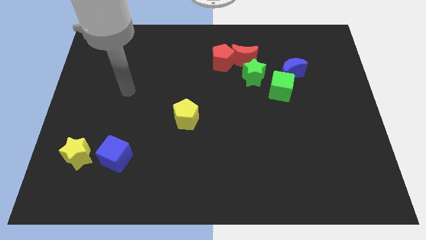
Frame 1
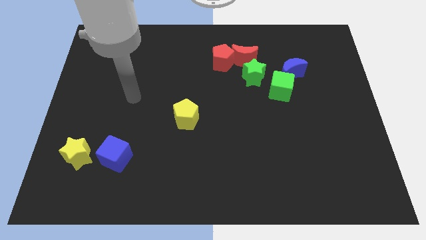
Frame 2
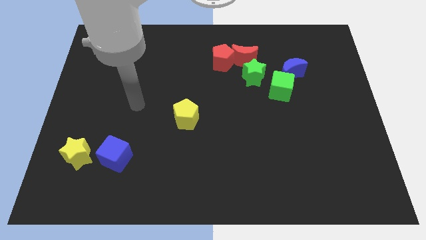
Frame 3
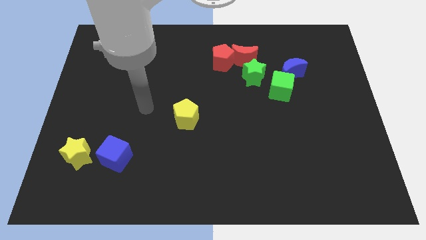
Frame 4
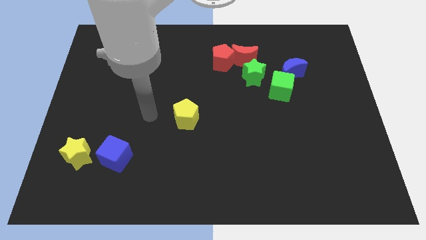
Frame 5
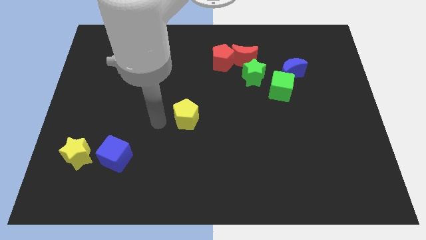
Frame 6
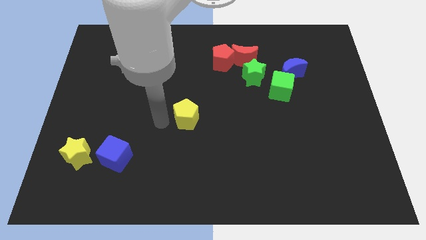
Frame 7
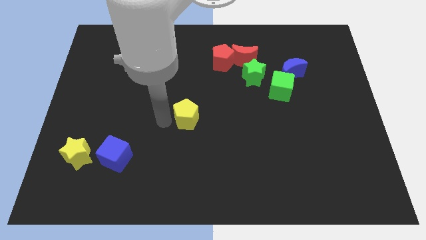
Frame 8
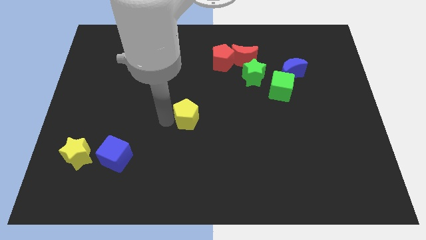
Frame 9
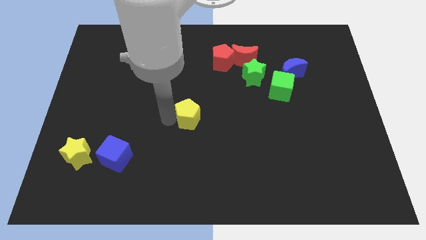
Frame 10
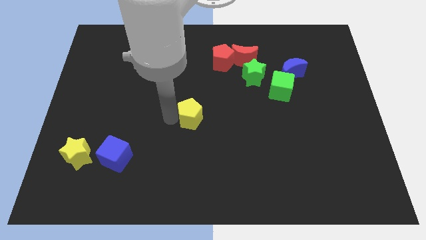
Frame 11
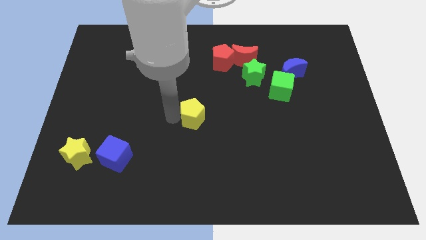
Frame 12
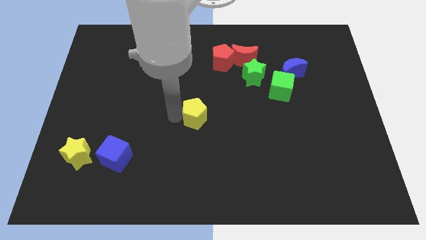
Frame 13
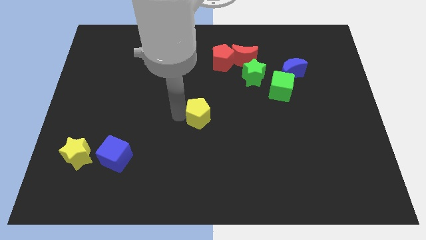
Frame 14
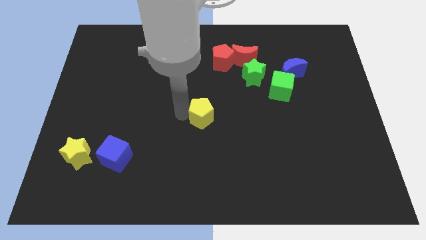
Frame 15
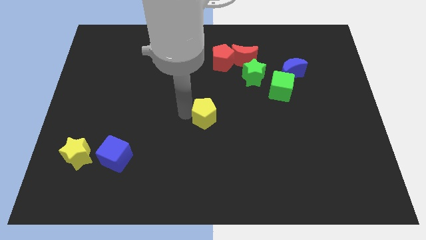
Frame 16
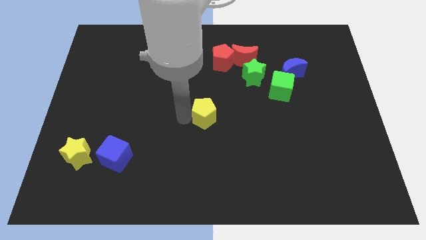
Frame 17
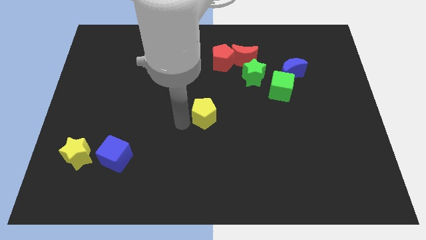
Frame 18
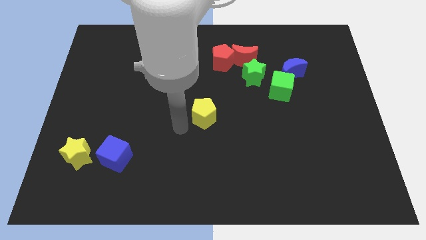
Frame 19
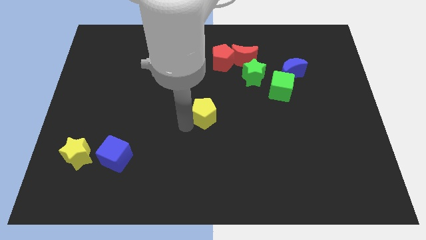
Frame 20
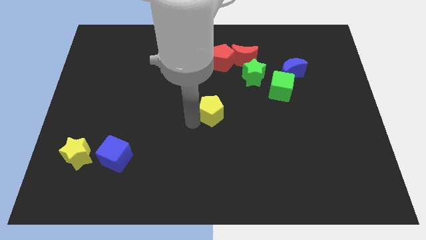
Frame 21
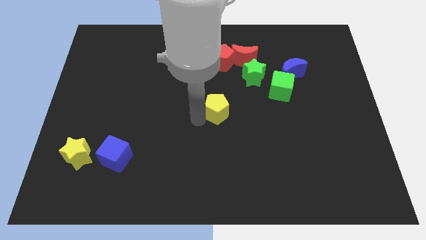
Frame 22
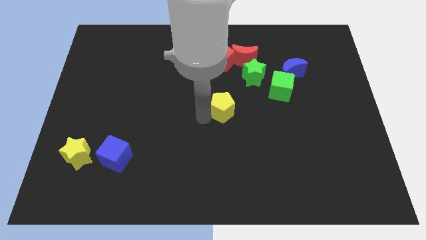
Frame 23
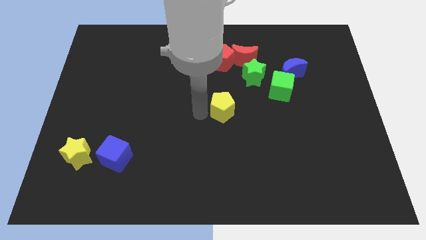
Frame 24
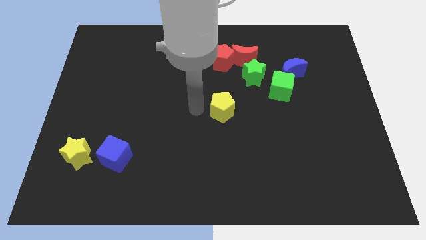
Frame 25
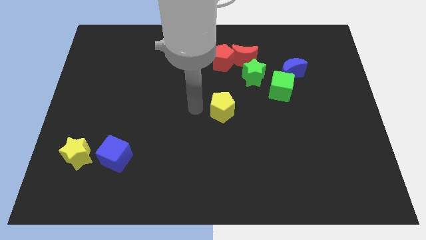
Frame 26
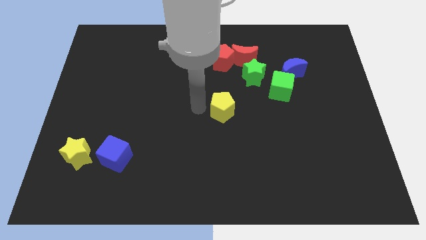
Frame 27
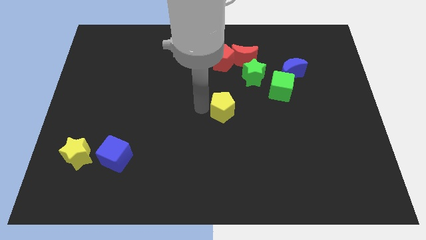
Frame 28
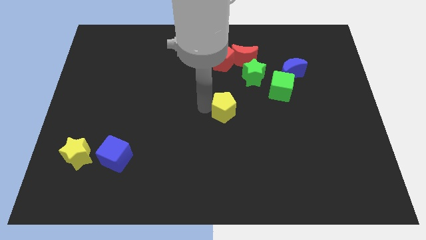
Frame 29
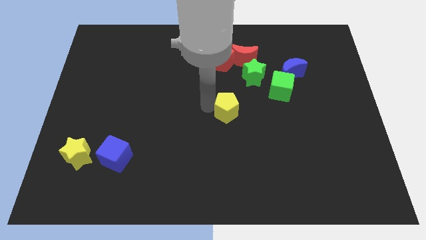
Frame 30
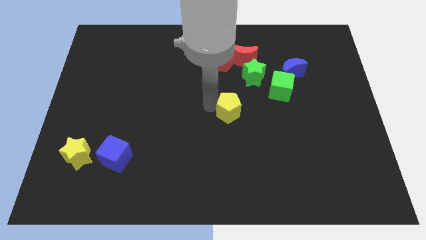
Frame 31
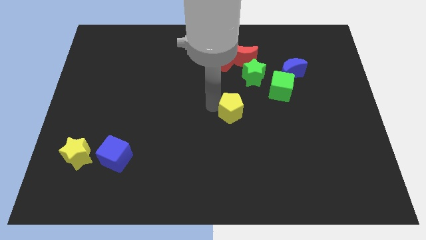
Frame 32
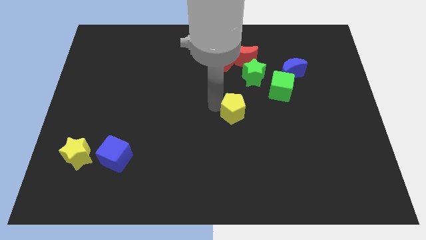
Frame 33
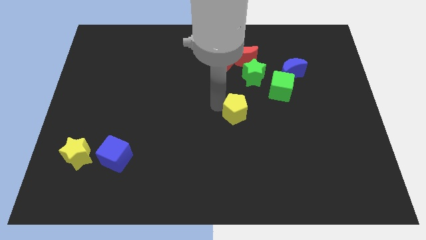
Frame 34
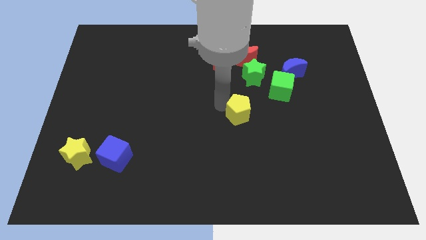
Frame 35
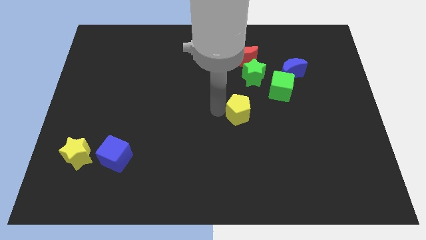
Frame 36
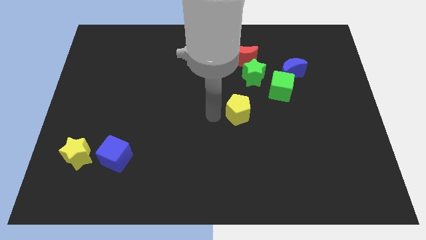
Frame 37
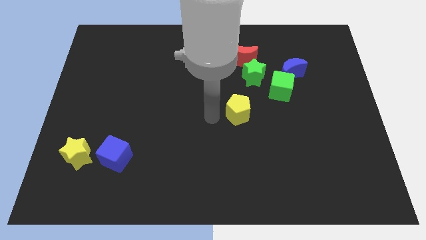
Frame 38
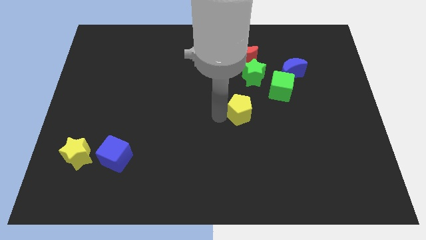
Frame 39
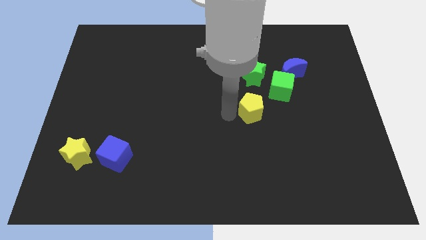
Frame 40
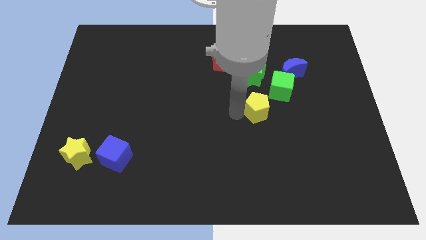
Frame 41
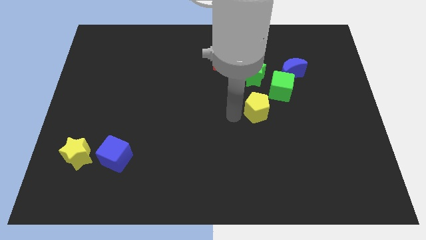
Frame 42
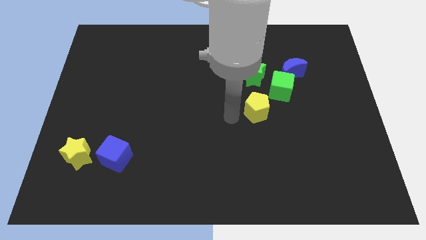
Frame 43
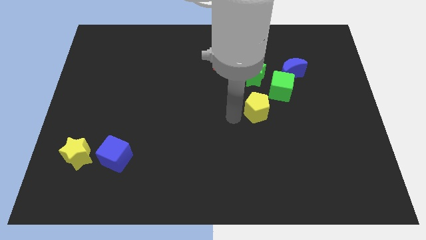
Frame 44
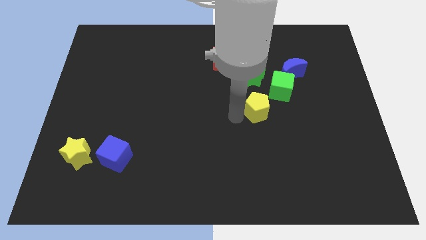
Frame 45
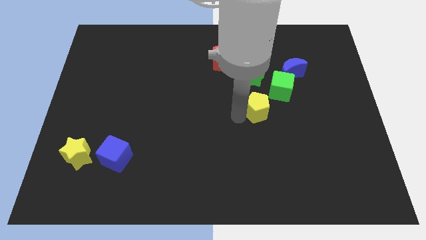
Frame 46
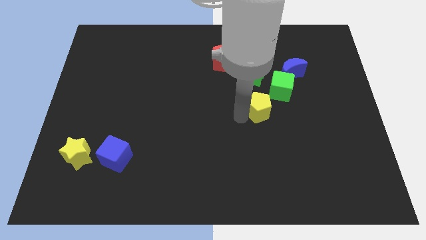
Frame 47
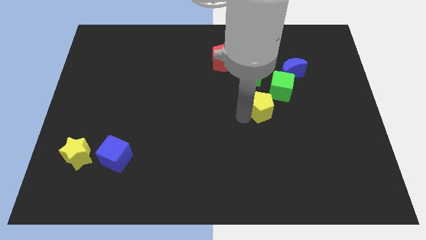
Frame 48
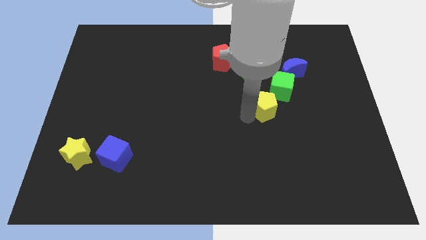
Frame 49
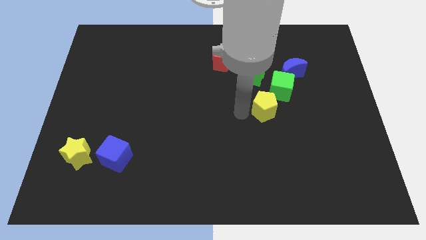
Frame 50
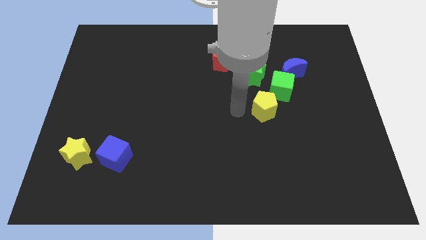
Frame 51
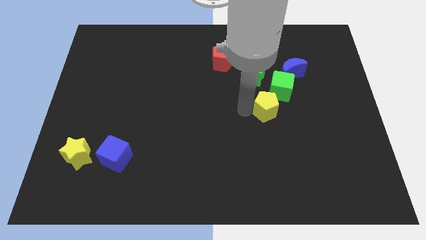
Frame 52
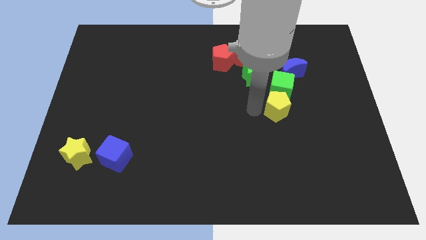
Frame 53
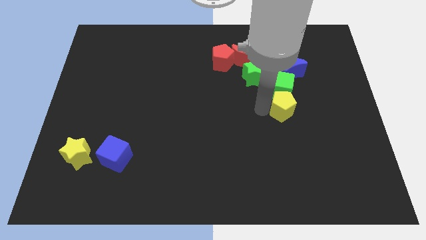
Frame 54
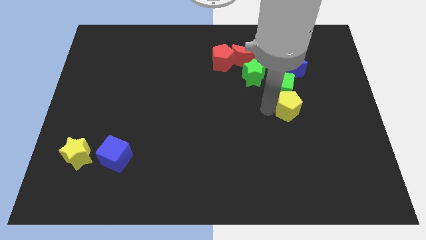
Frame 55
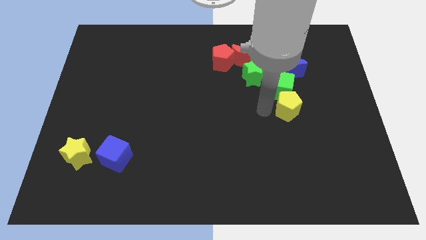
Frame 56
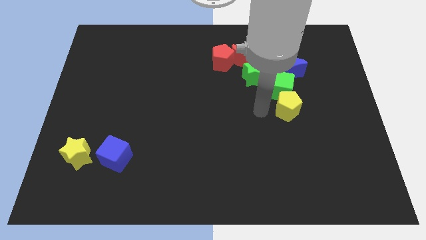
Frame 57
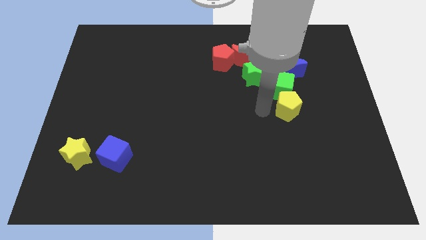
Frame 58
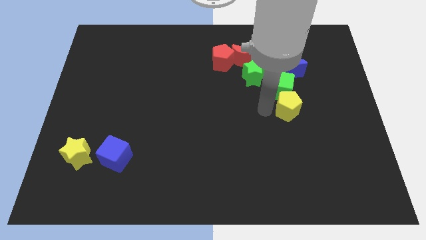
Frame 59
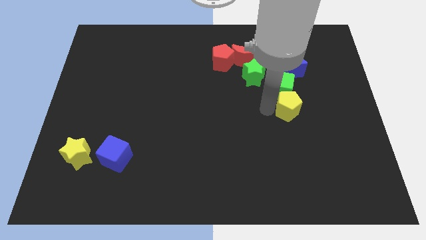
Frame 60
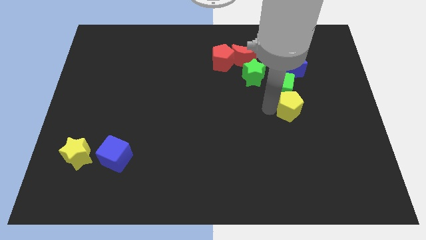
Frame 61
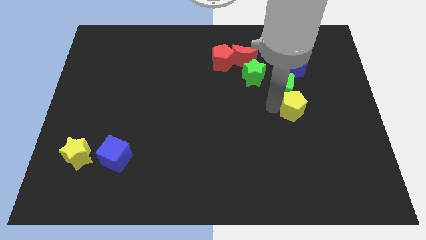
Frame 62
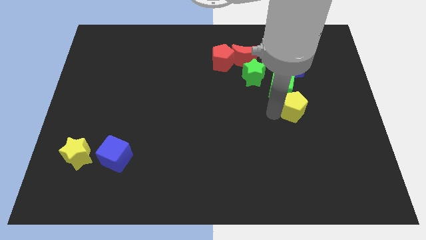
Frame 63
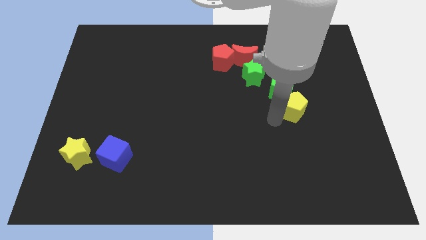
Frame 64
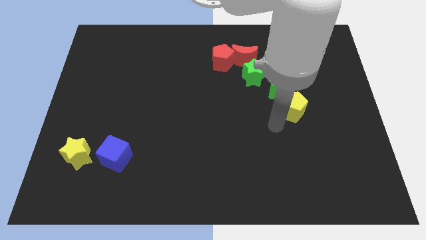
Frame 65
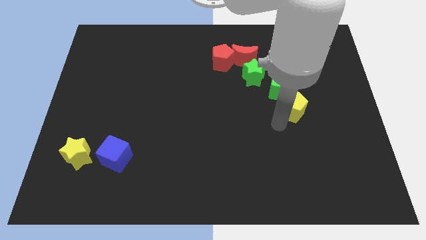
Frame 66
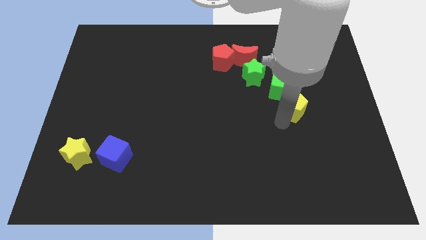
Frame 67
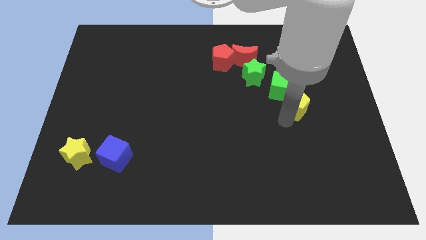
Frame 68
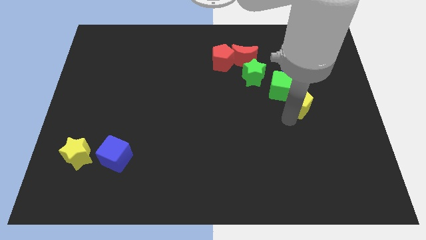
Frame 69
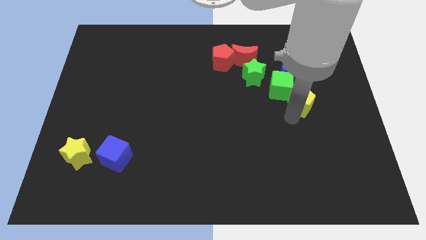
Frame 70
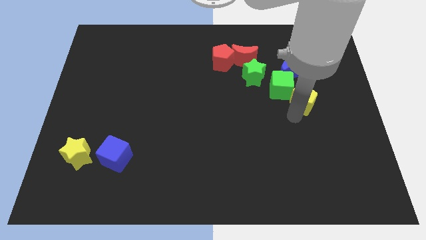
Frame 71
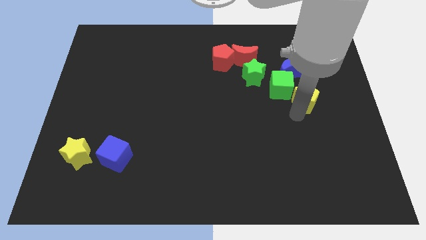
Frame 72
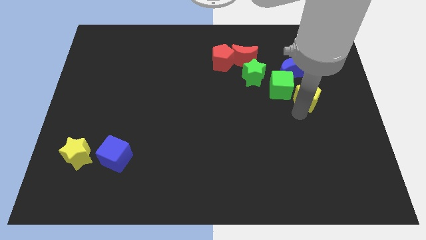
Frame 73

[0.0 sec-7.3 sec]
put the yellow pentagon to the bottom right of the blue moon
